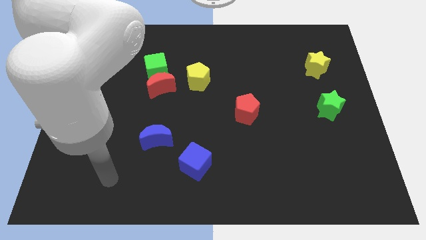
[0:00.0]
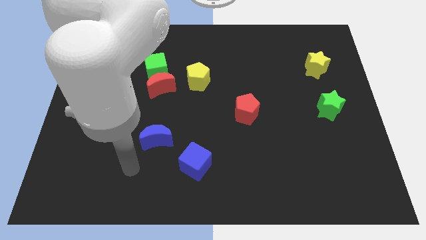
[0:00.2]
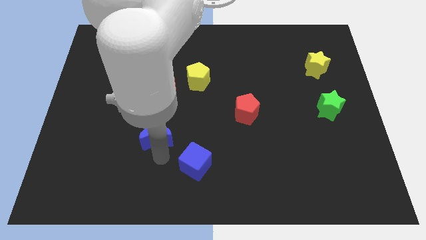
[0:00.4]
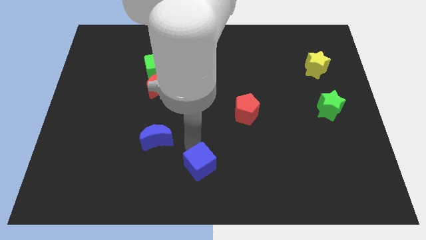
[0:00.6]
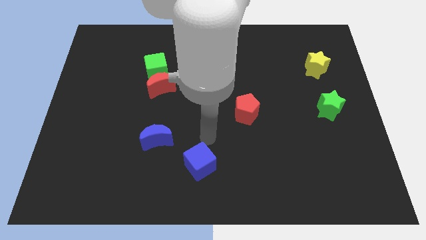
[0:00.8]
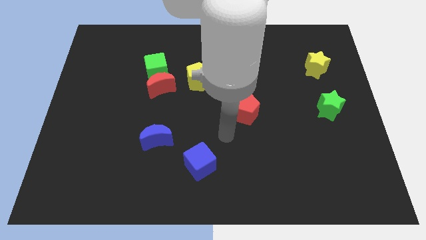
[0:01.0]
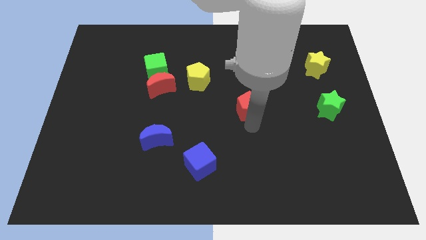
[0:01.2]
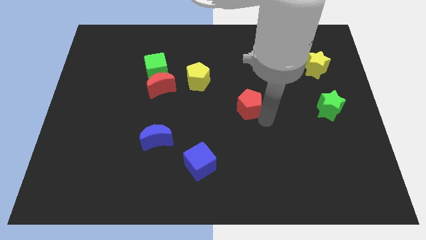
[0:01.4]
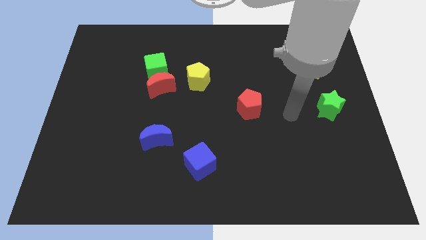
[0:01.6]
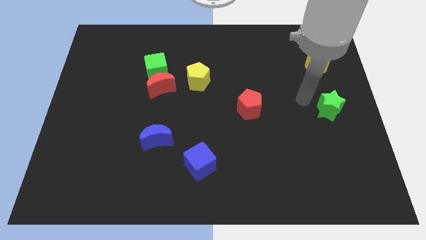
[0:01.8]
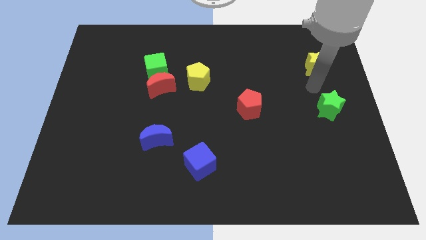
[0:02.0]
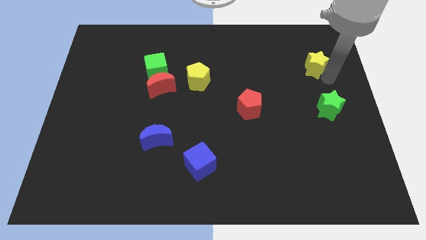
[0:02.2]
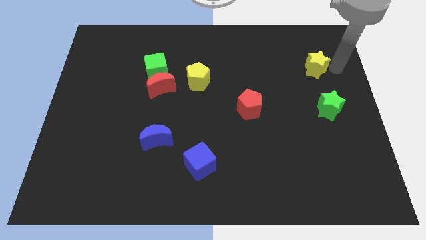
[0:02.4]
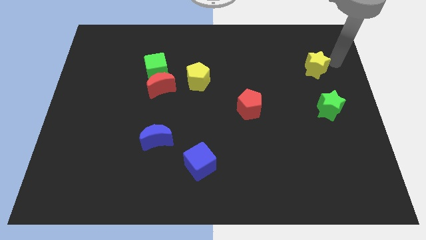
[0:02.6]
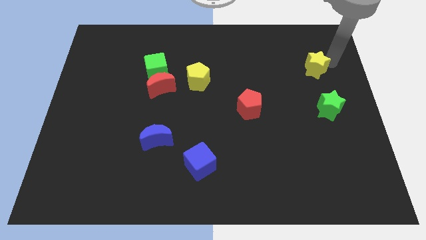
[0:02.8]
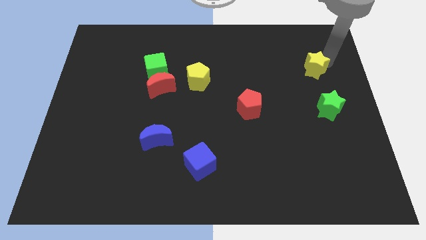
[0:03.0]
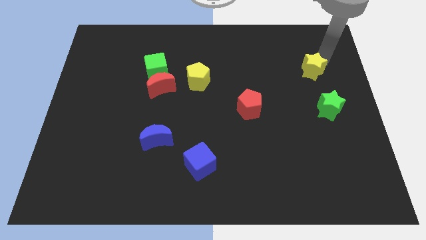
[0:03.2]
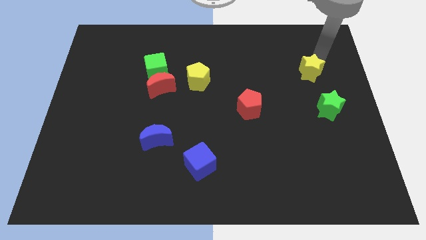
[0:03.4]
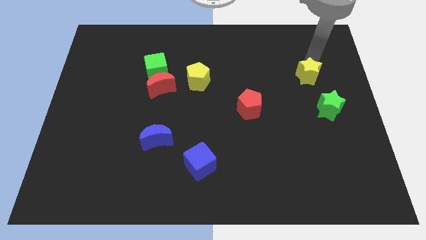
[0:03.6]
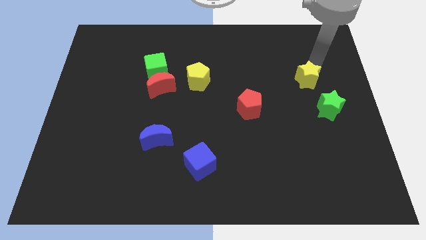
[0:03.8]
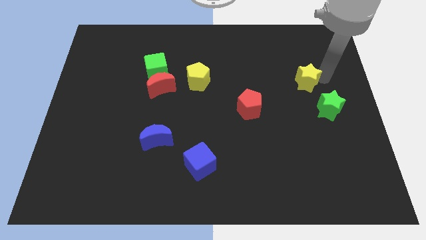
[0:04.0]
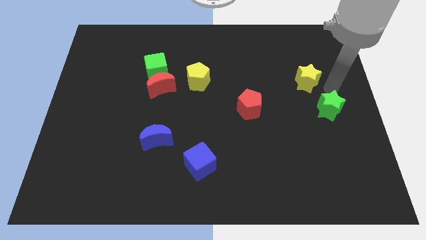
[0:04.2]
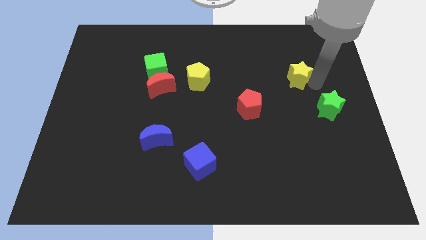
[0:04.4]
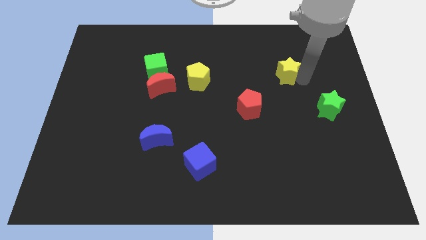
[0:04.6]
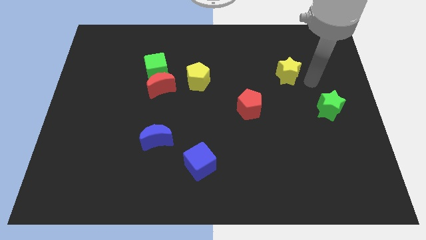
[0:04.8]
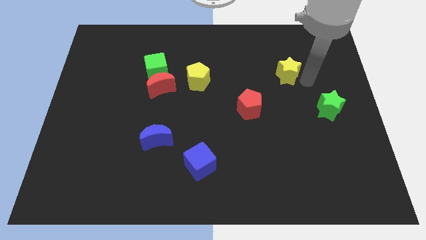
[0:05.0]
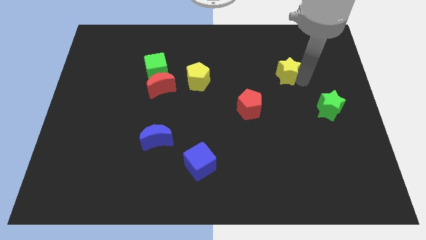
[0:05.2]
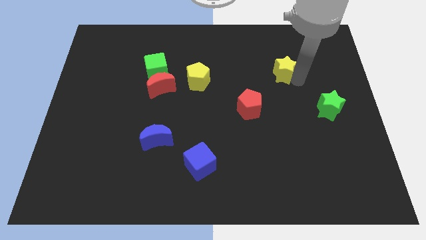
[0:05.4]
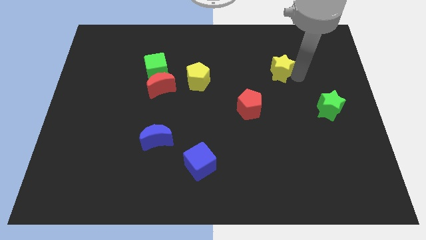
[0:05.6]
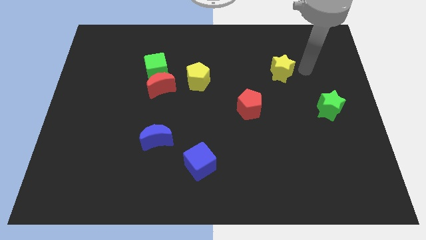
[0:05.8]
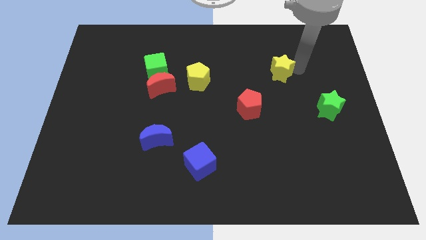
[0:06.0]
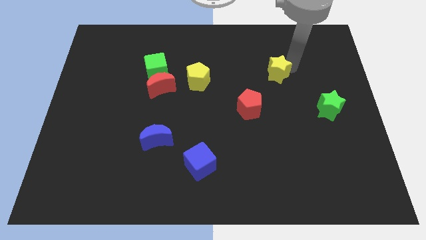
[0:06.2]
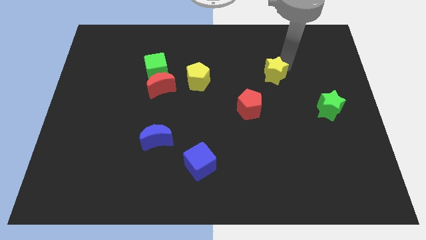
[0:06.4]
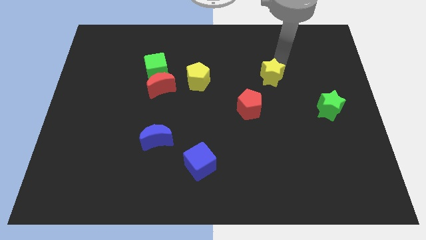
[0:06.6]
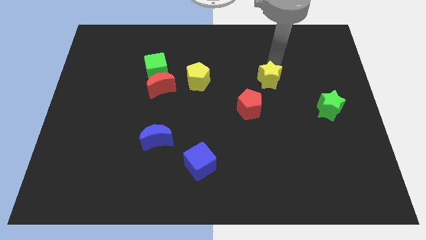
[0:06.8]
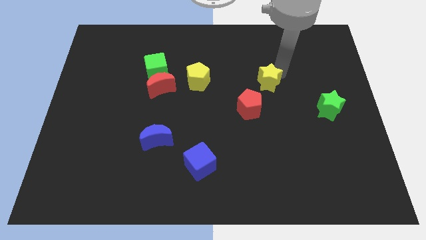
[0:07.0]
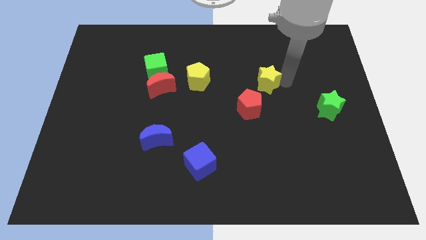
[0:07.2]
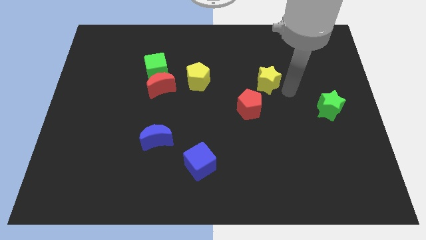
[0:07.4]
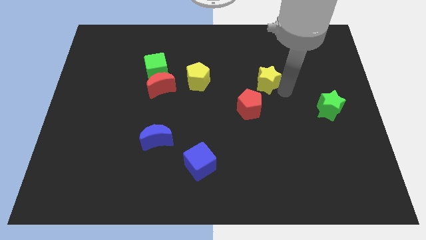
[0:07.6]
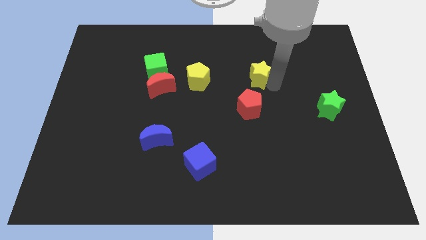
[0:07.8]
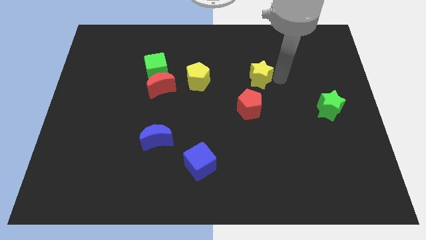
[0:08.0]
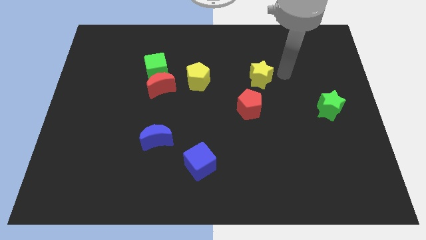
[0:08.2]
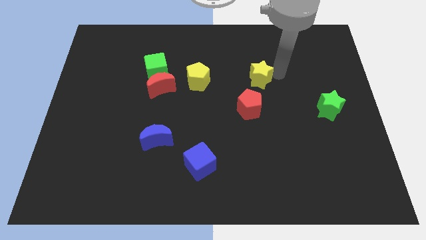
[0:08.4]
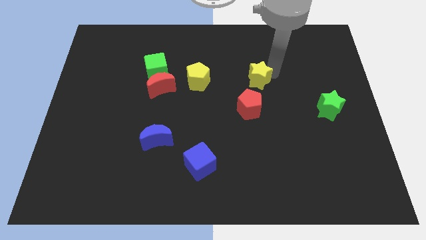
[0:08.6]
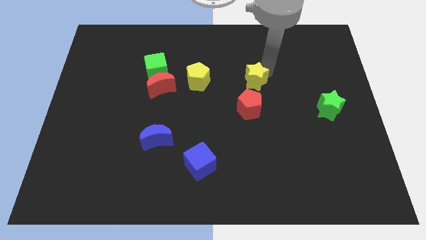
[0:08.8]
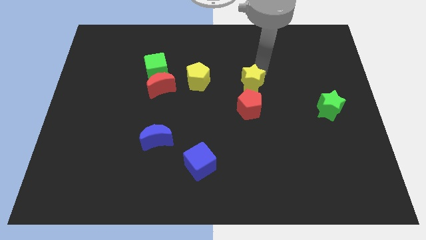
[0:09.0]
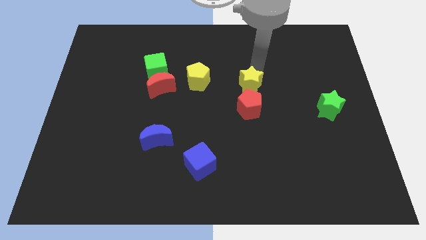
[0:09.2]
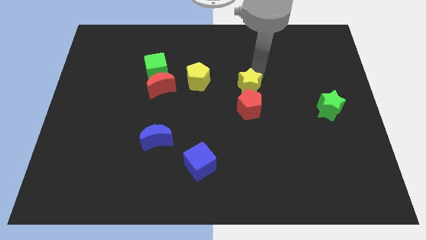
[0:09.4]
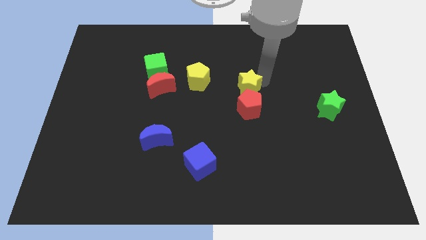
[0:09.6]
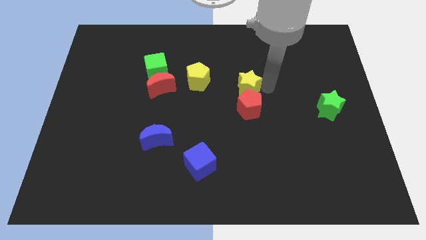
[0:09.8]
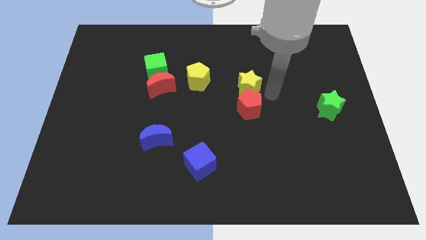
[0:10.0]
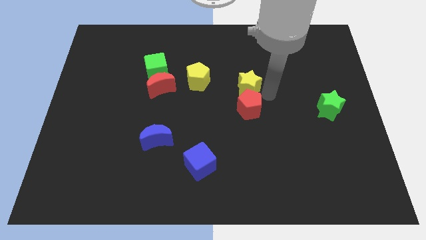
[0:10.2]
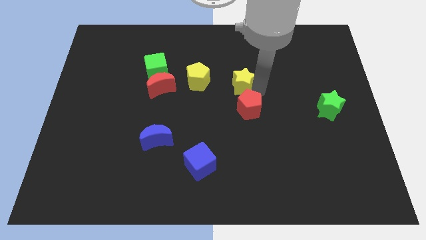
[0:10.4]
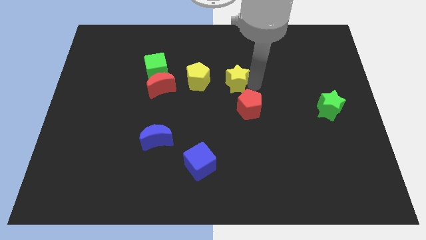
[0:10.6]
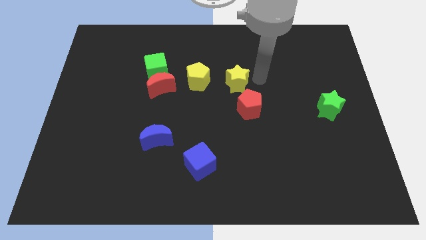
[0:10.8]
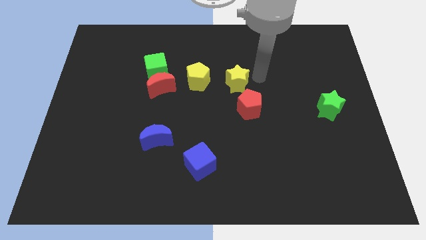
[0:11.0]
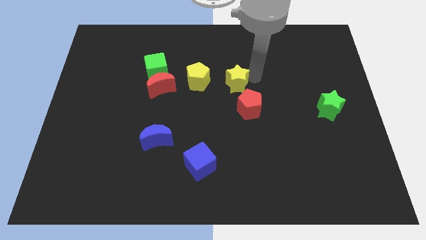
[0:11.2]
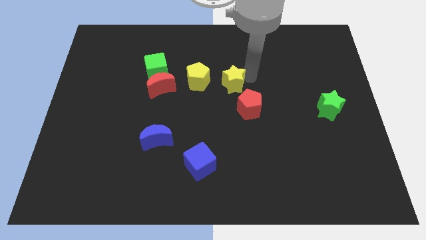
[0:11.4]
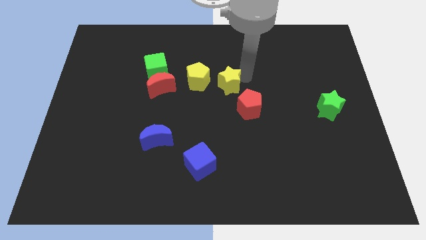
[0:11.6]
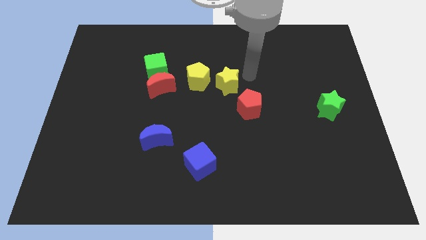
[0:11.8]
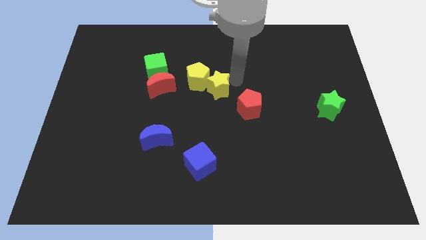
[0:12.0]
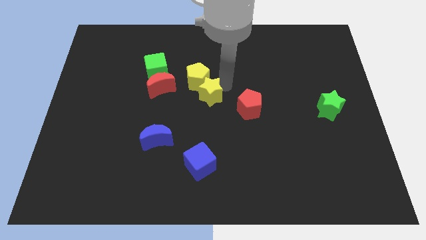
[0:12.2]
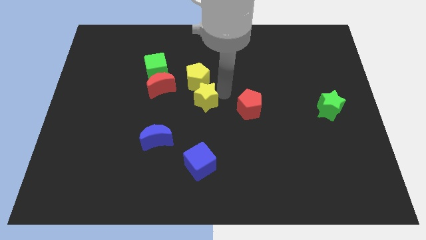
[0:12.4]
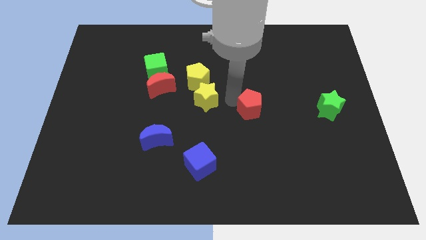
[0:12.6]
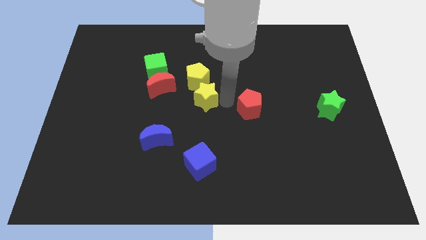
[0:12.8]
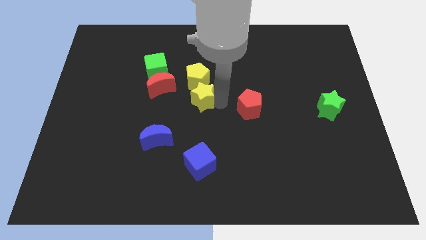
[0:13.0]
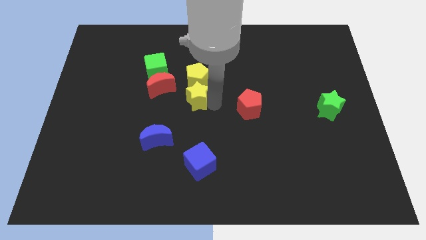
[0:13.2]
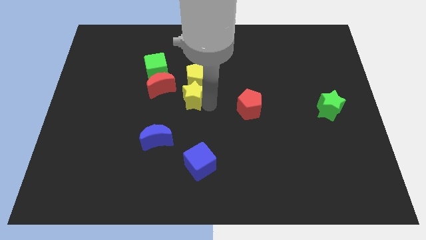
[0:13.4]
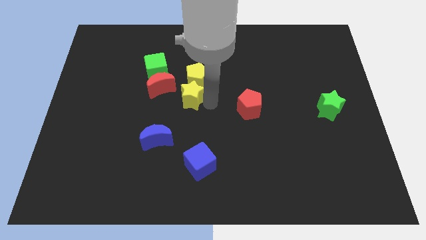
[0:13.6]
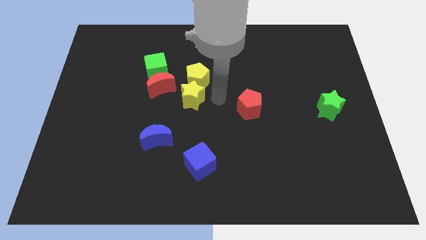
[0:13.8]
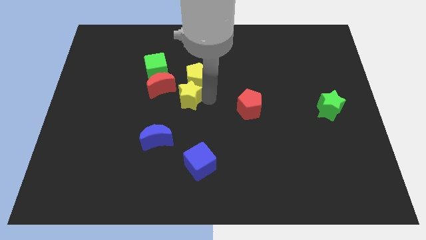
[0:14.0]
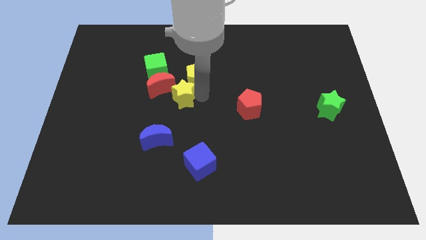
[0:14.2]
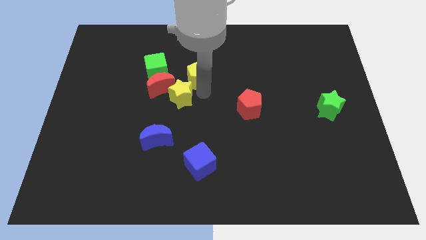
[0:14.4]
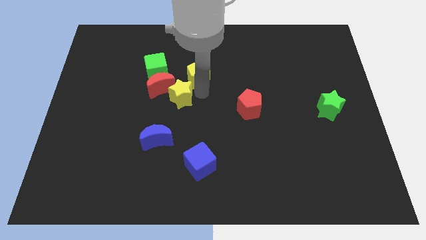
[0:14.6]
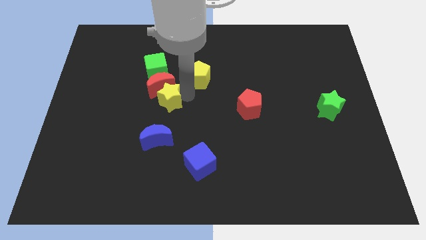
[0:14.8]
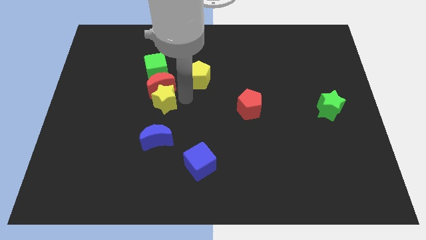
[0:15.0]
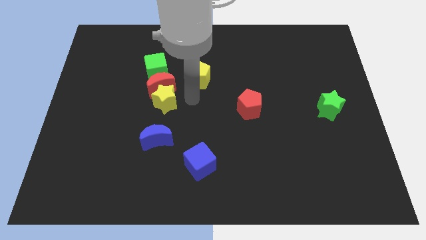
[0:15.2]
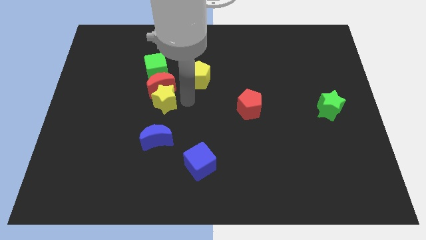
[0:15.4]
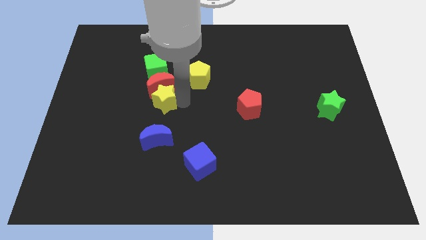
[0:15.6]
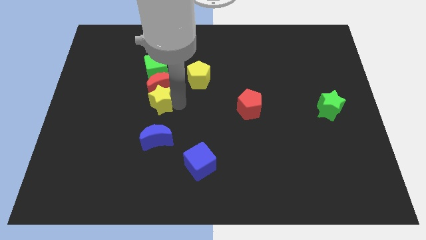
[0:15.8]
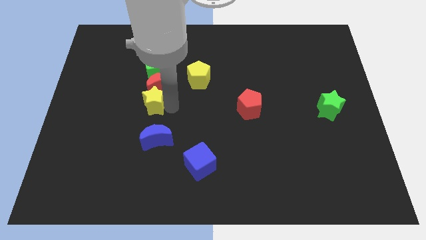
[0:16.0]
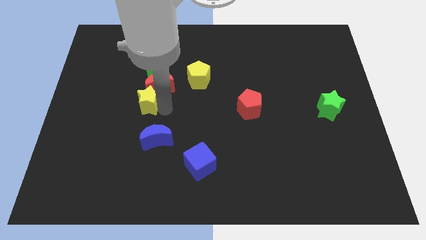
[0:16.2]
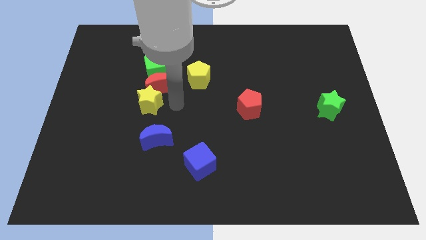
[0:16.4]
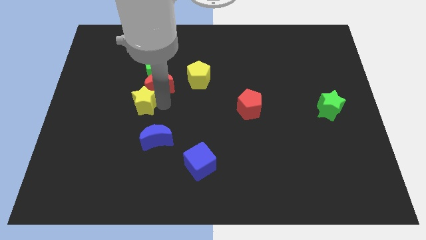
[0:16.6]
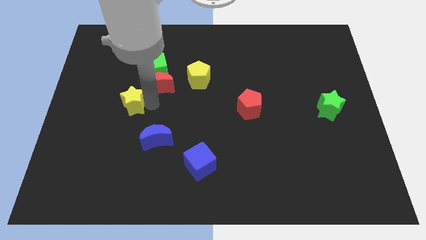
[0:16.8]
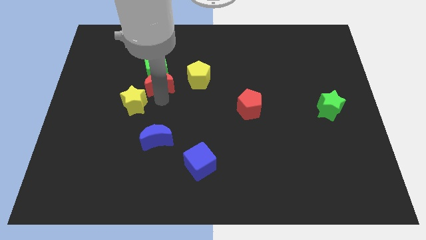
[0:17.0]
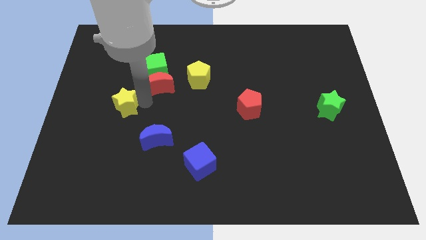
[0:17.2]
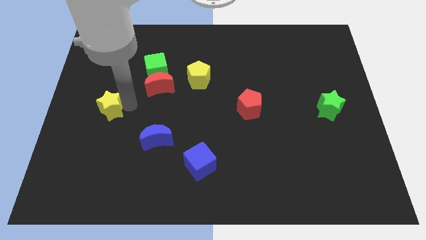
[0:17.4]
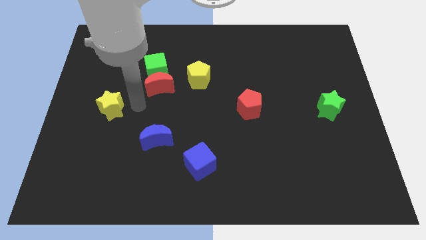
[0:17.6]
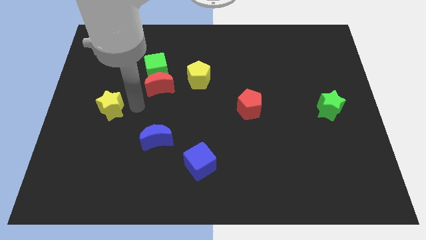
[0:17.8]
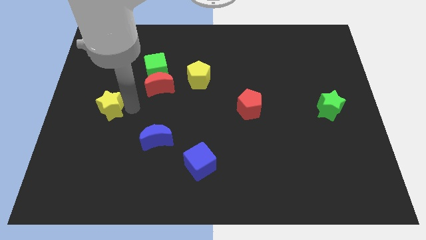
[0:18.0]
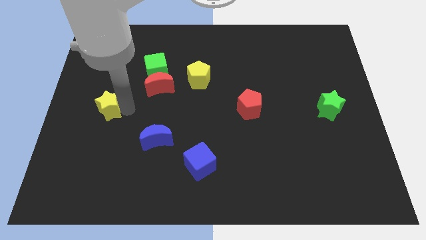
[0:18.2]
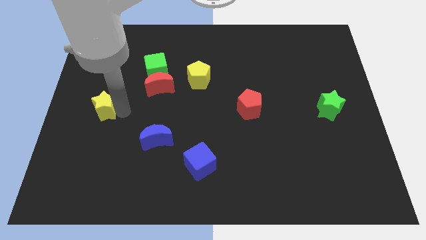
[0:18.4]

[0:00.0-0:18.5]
put the yellow star to the left side of the board
